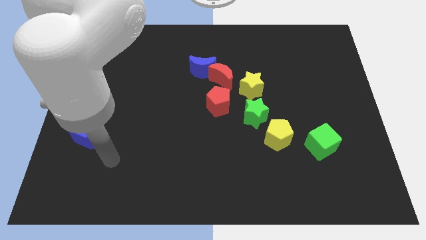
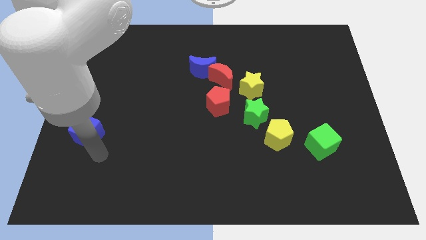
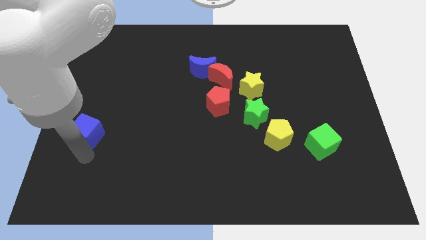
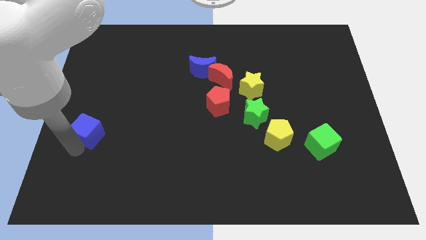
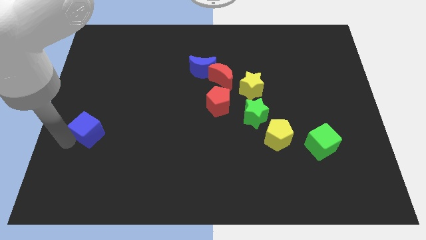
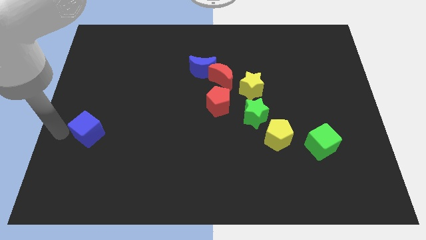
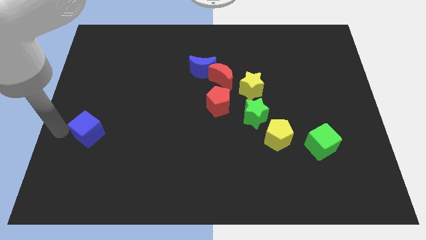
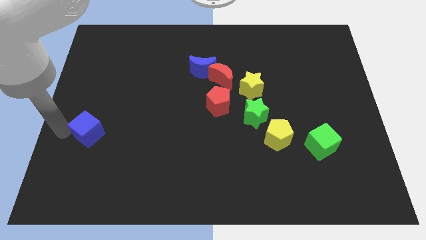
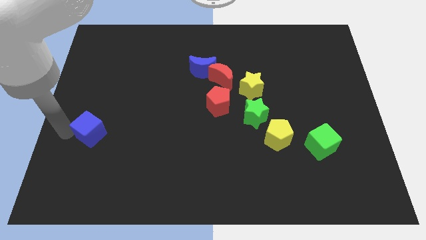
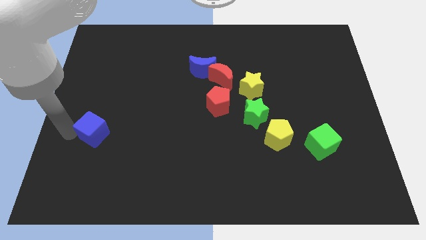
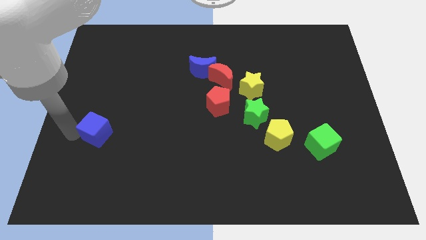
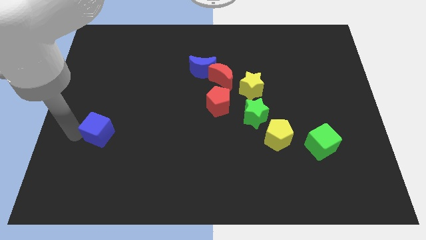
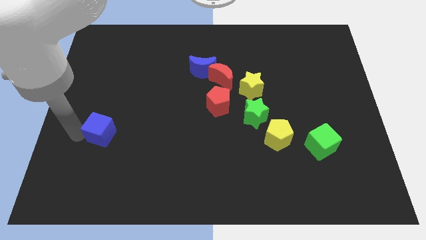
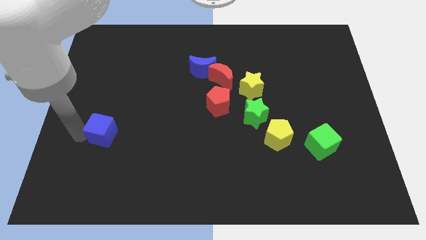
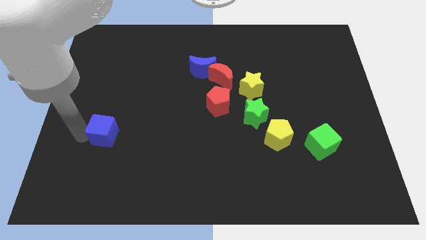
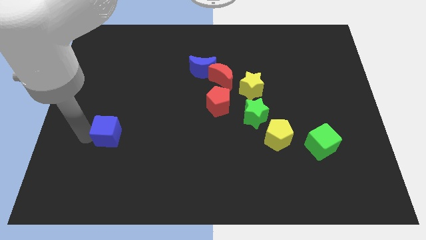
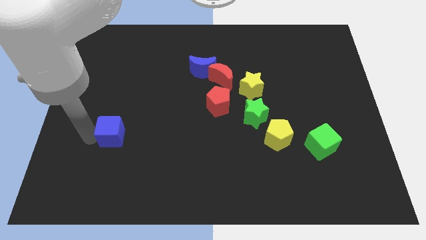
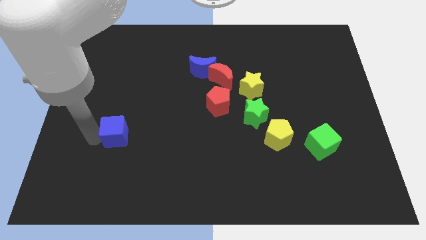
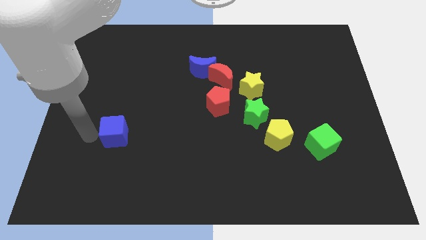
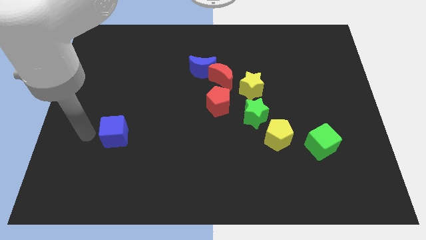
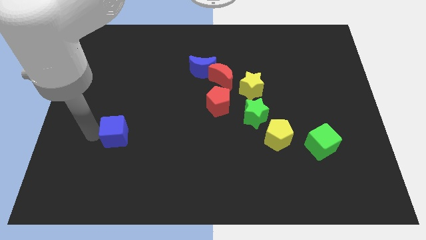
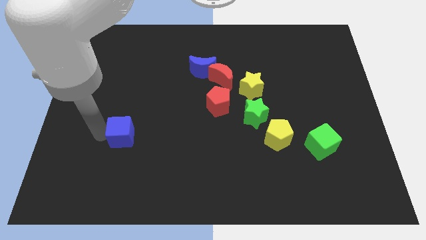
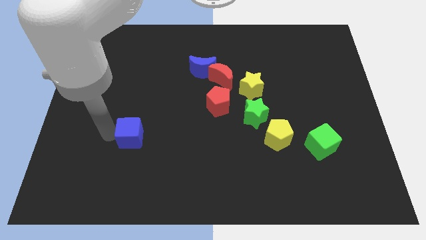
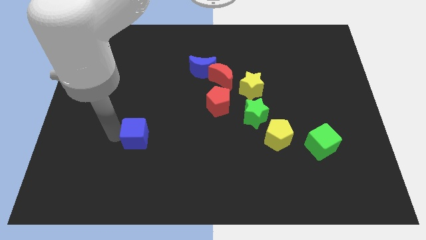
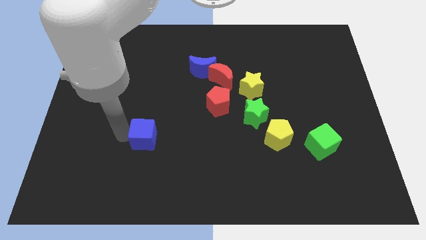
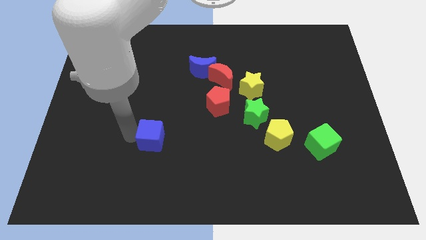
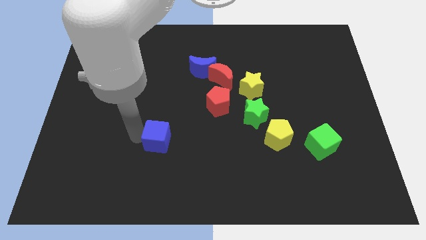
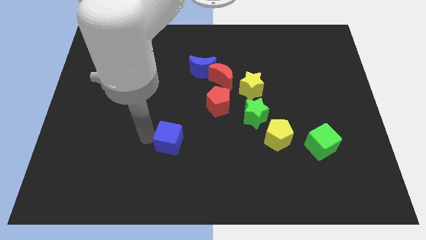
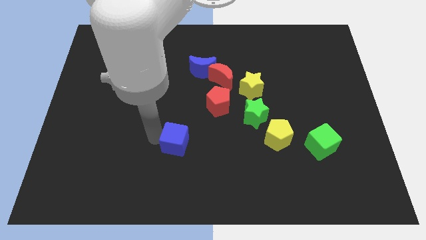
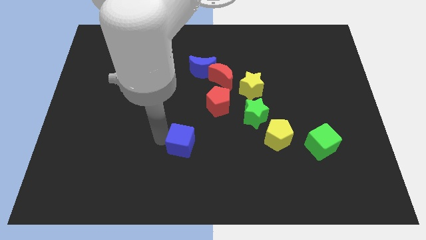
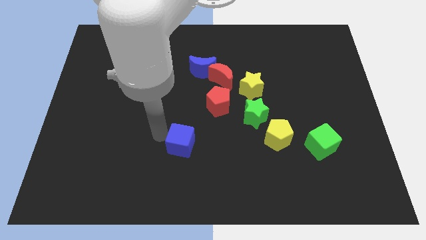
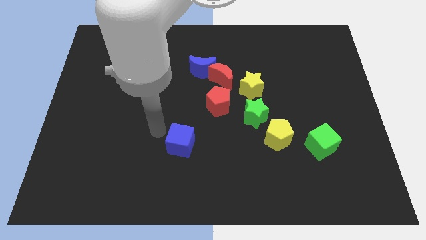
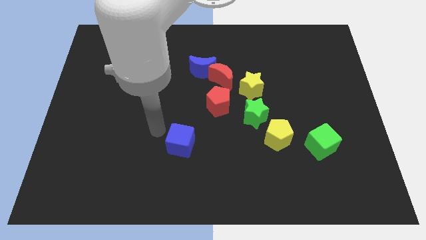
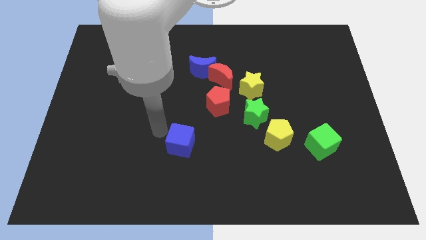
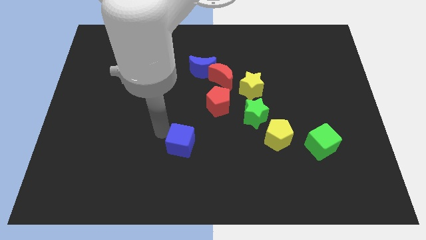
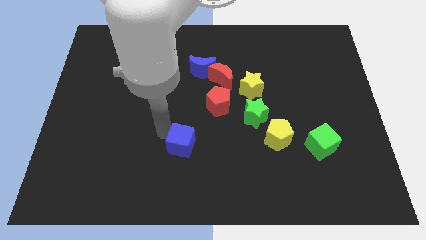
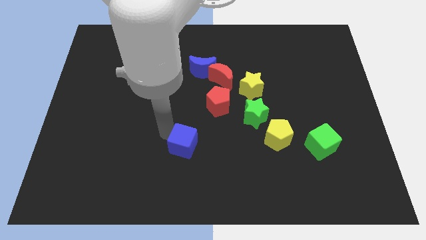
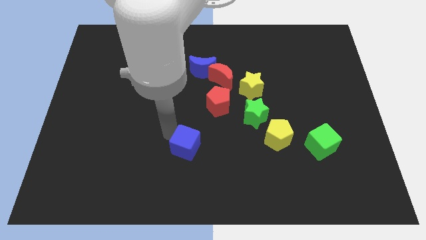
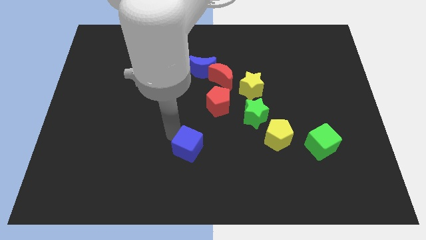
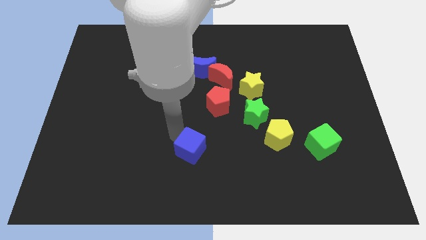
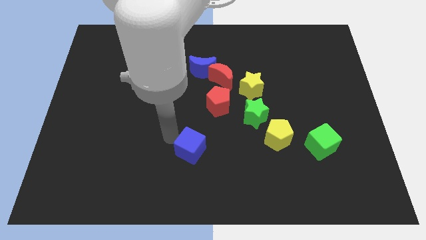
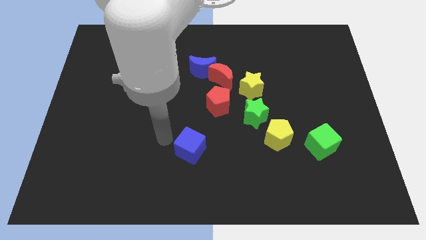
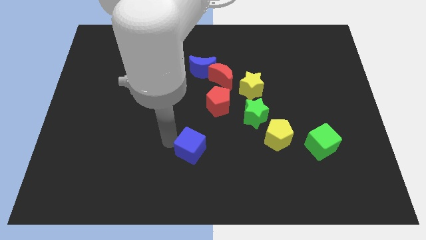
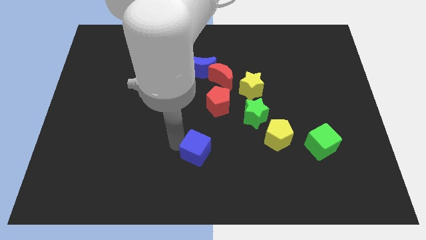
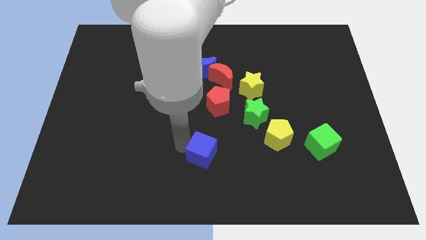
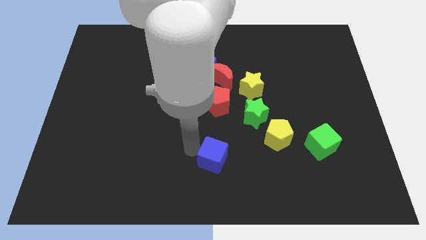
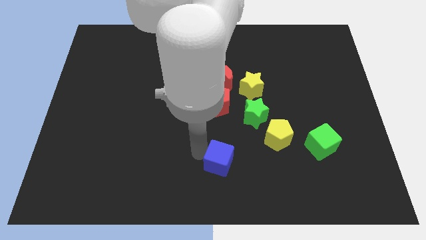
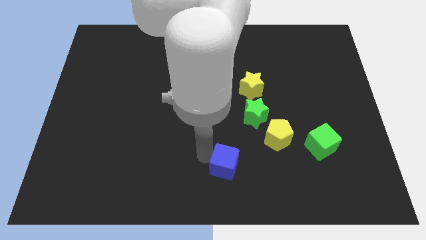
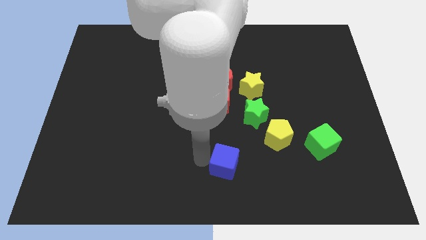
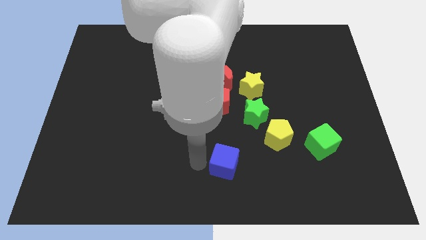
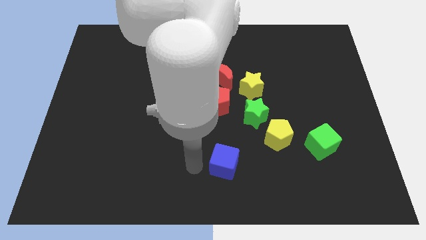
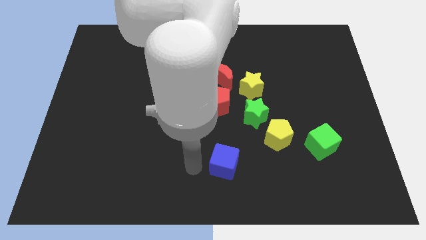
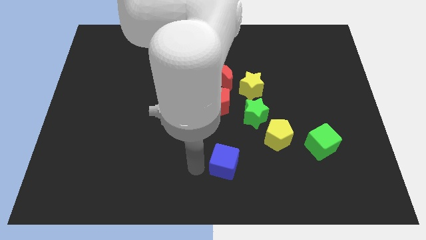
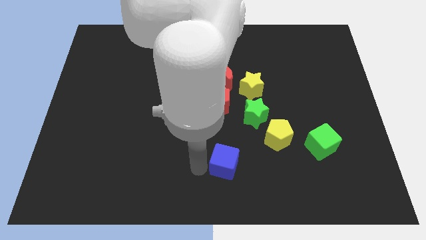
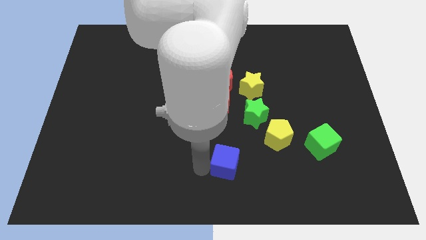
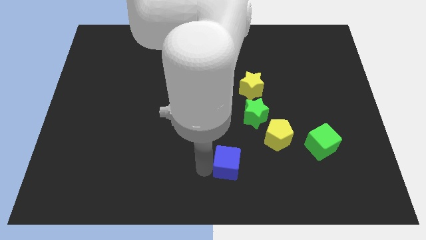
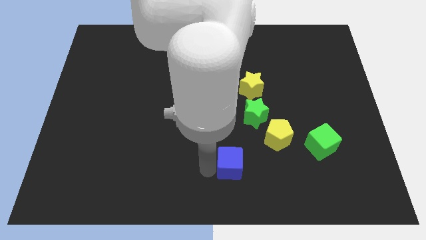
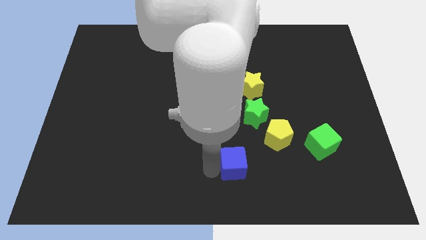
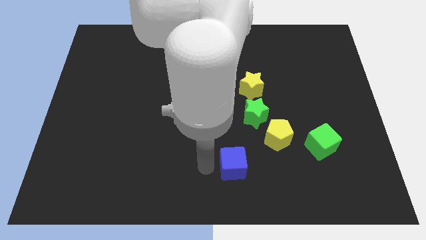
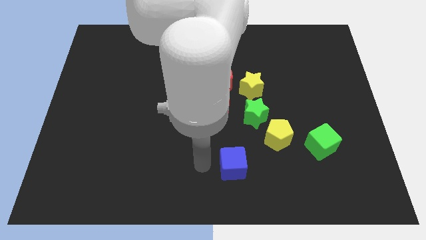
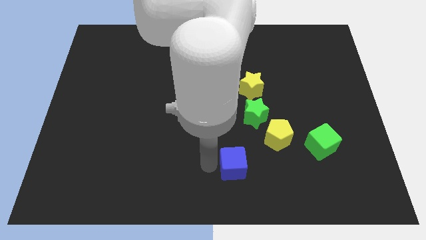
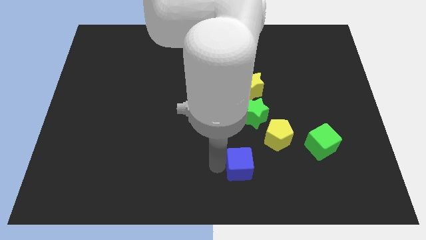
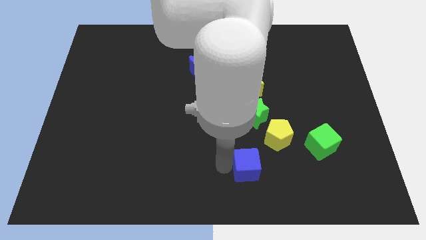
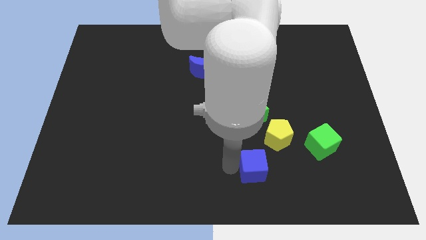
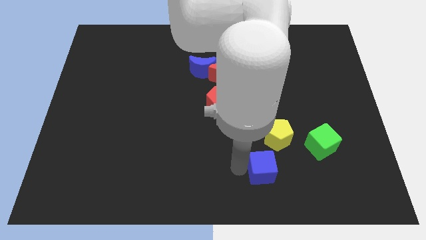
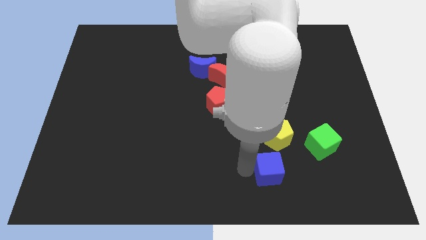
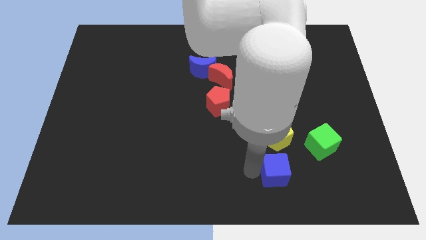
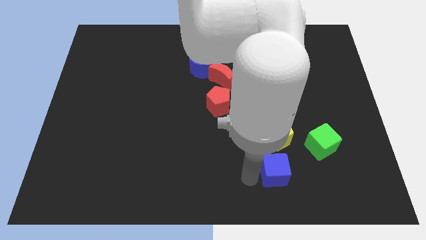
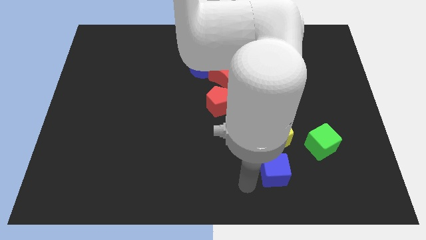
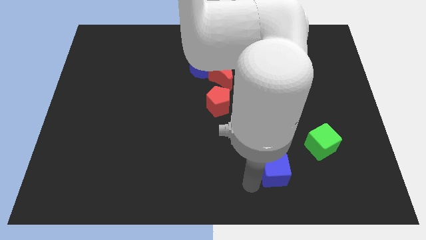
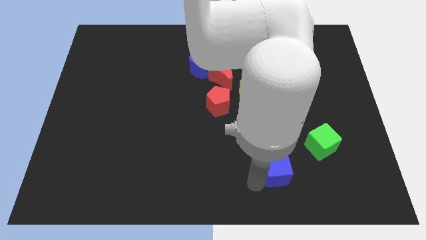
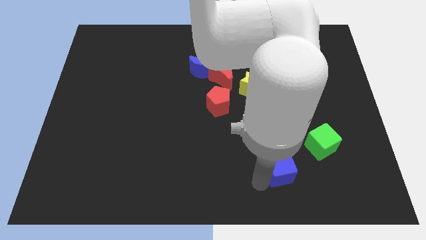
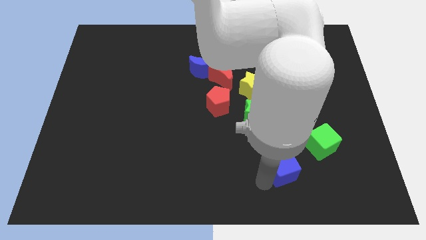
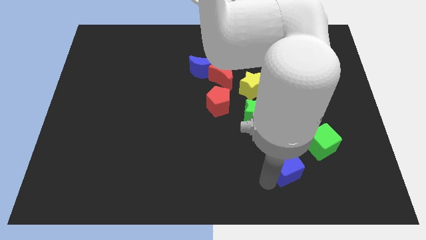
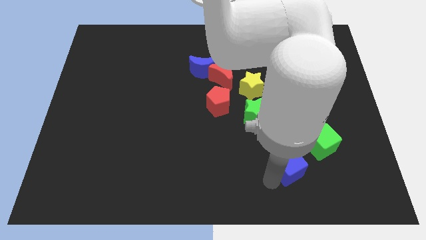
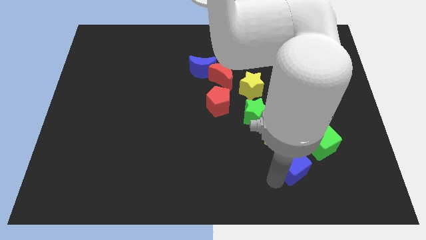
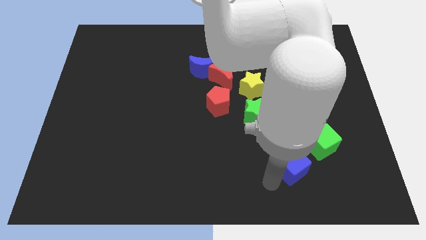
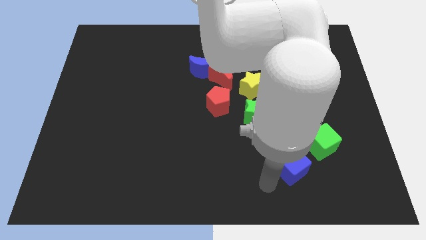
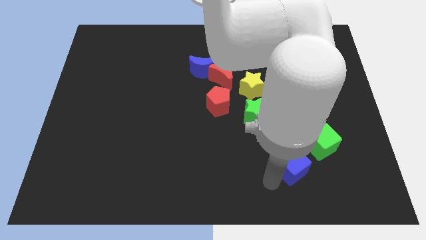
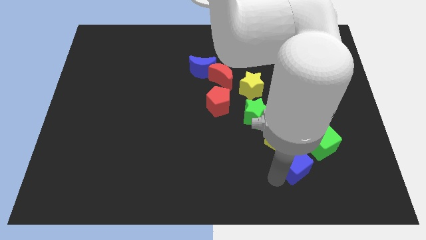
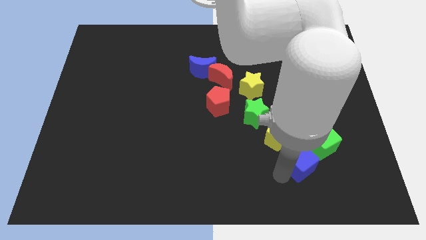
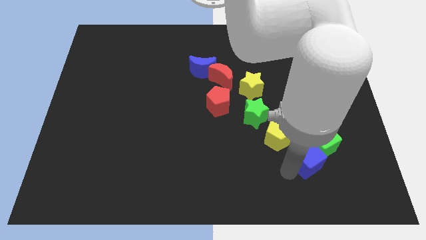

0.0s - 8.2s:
push the blue cube towards the green cube
